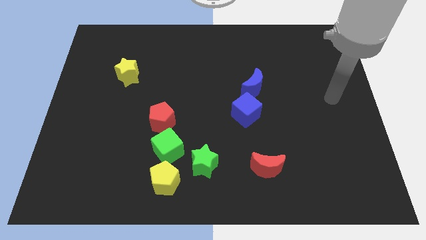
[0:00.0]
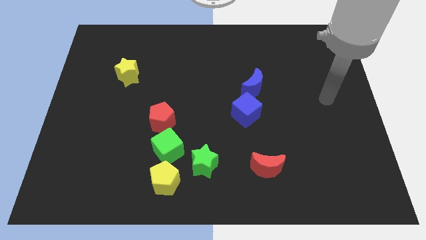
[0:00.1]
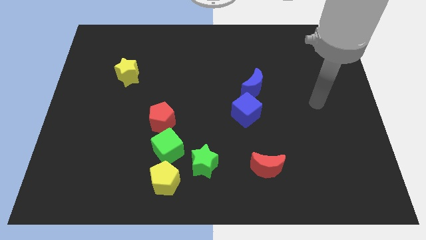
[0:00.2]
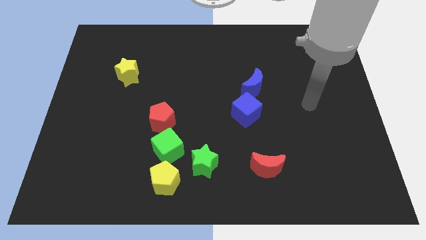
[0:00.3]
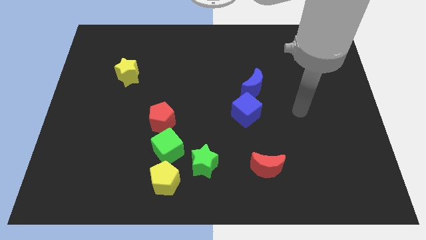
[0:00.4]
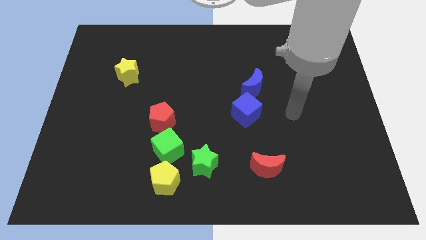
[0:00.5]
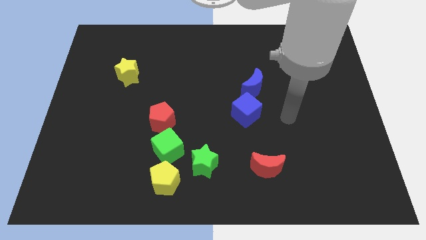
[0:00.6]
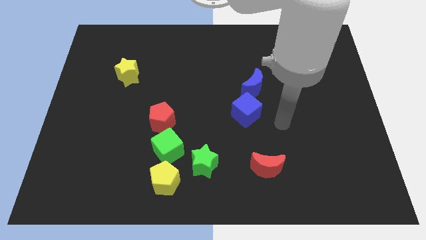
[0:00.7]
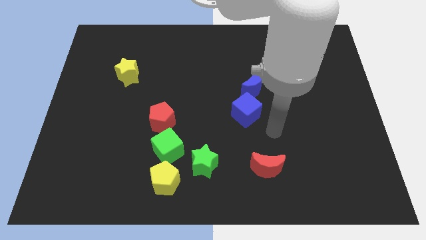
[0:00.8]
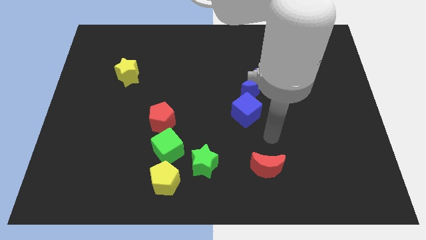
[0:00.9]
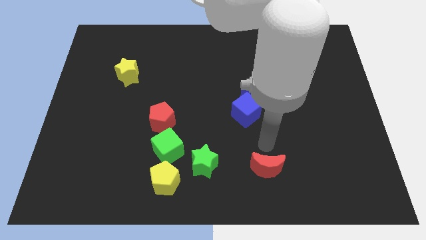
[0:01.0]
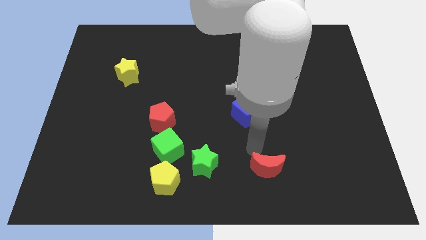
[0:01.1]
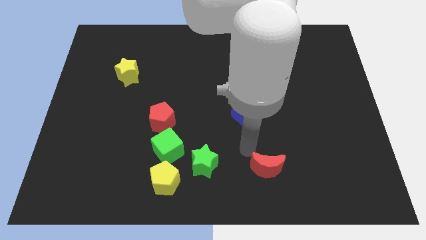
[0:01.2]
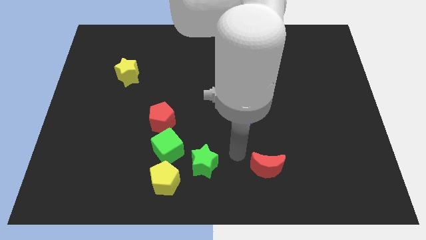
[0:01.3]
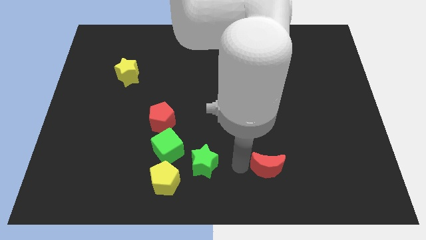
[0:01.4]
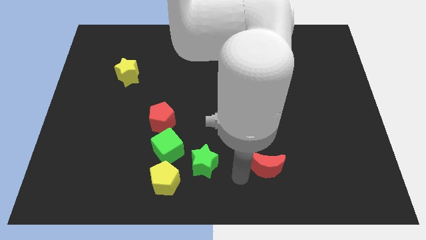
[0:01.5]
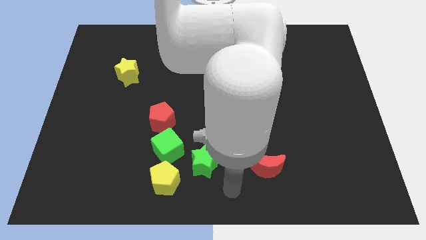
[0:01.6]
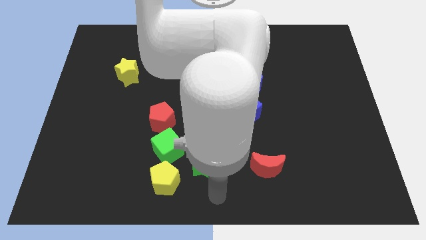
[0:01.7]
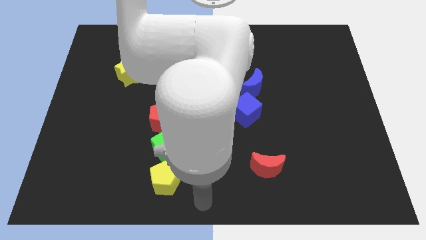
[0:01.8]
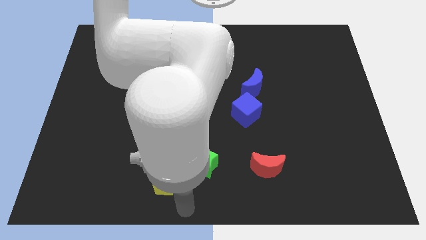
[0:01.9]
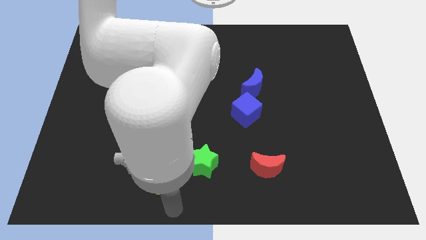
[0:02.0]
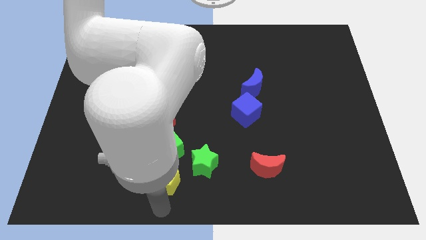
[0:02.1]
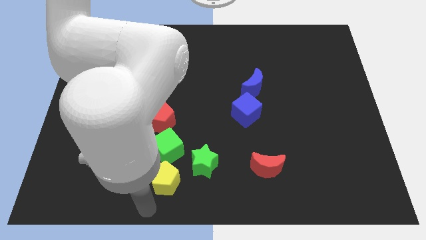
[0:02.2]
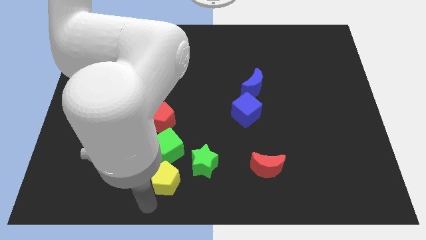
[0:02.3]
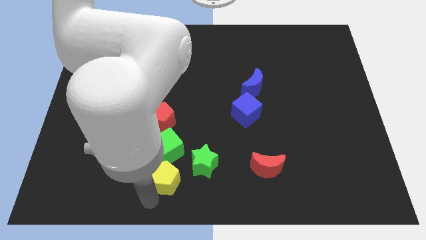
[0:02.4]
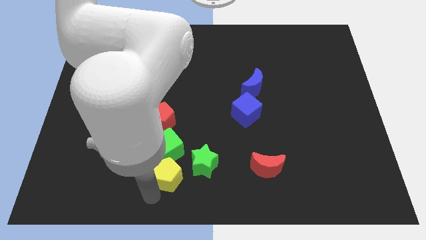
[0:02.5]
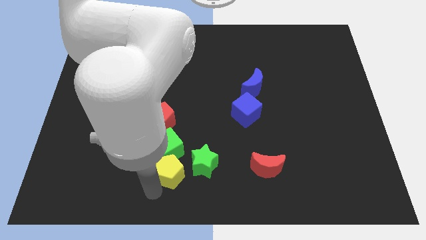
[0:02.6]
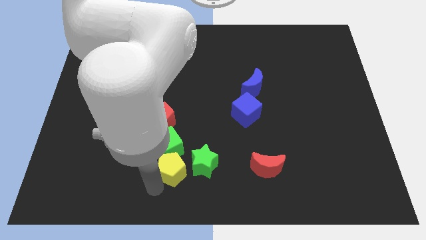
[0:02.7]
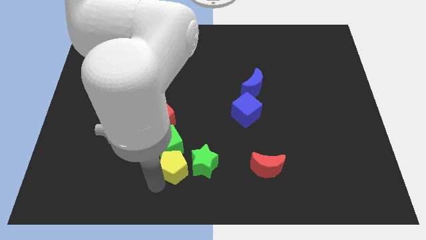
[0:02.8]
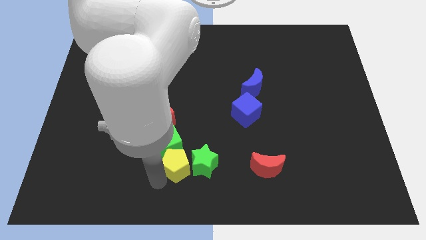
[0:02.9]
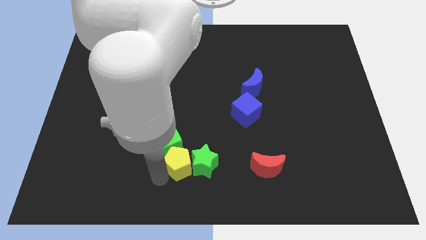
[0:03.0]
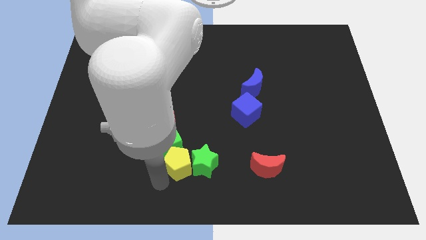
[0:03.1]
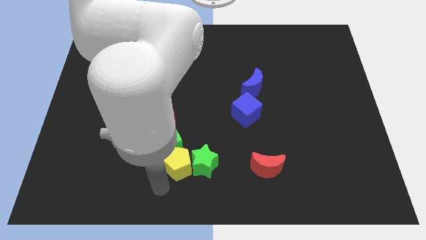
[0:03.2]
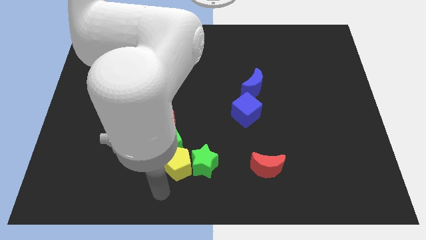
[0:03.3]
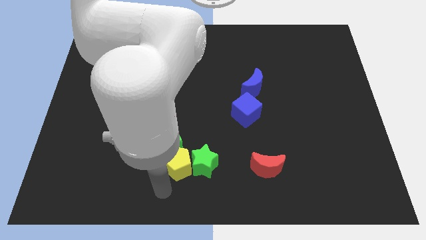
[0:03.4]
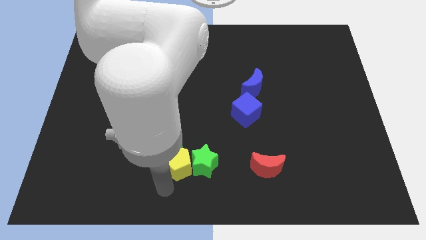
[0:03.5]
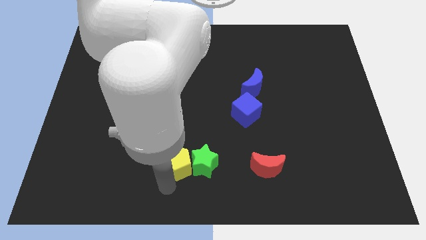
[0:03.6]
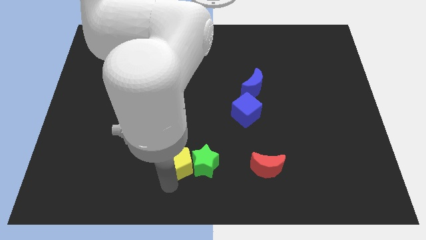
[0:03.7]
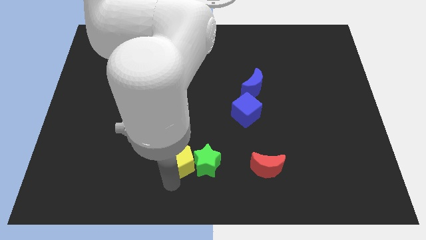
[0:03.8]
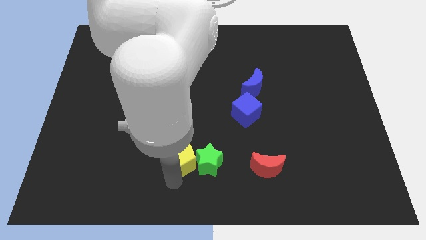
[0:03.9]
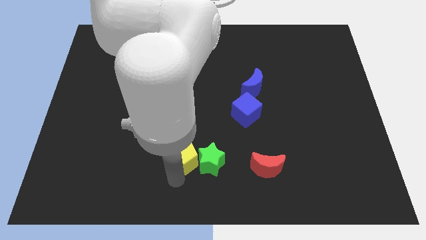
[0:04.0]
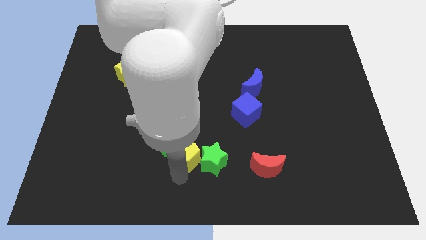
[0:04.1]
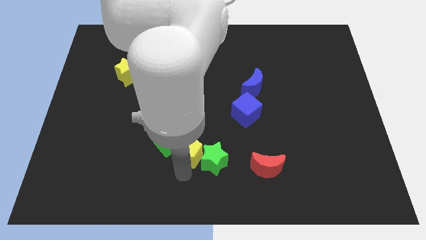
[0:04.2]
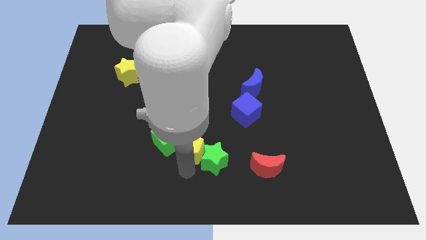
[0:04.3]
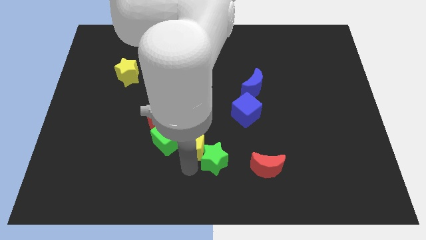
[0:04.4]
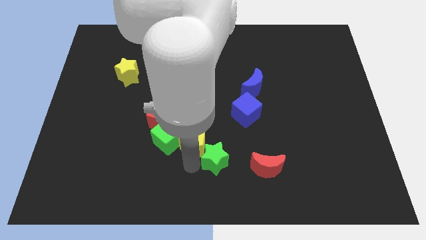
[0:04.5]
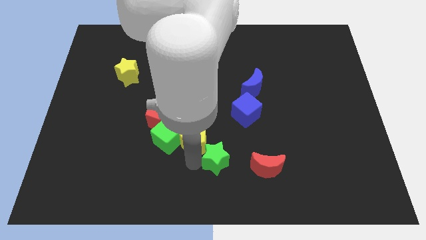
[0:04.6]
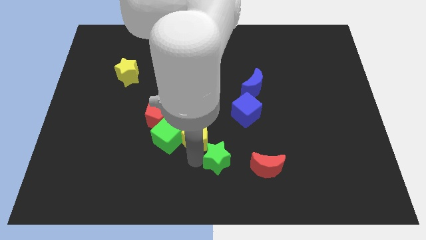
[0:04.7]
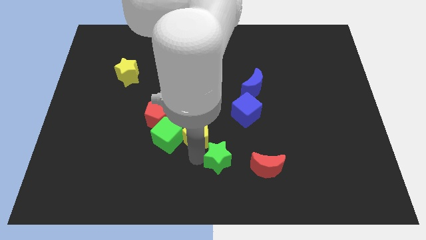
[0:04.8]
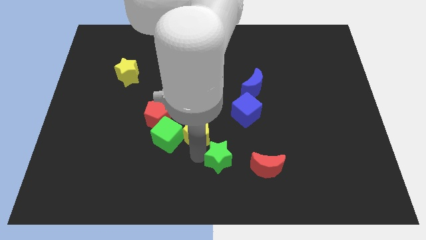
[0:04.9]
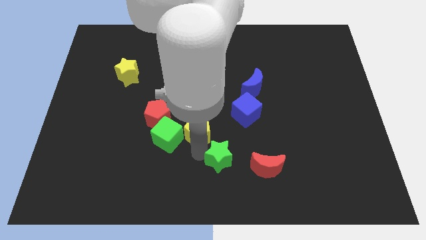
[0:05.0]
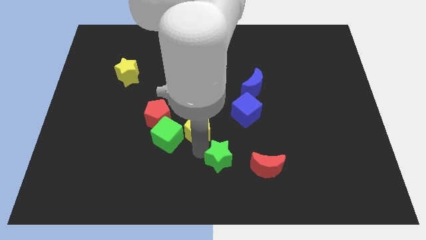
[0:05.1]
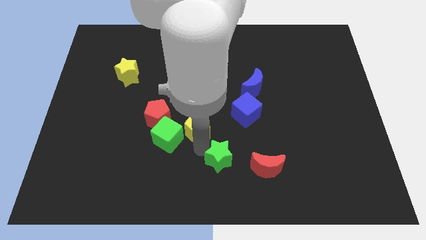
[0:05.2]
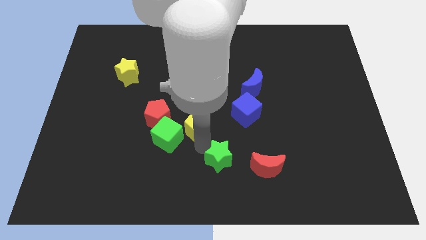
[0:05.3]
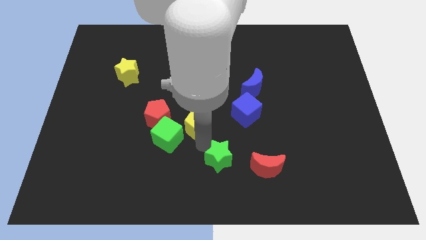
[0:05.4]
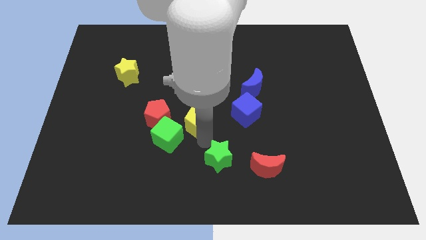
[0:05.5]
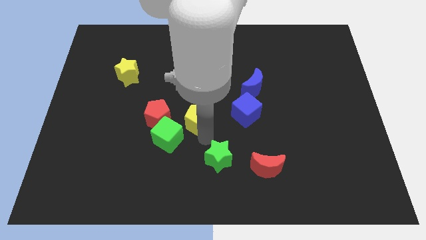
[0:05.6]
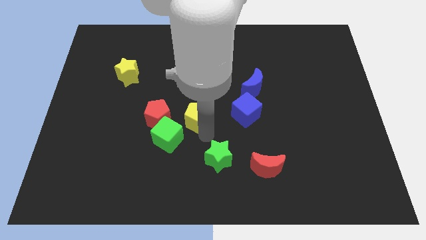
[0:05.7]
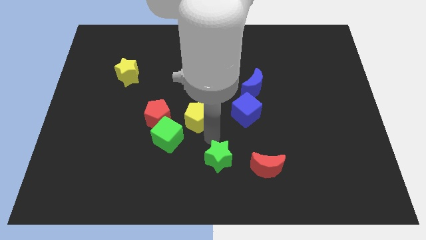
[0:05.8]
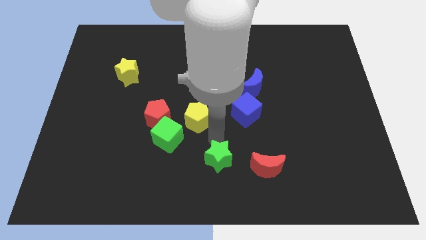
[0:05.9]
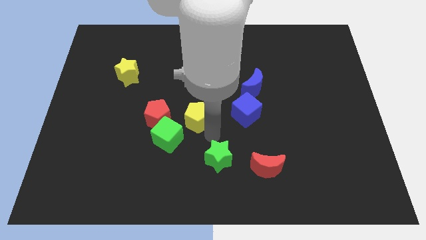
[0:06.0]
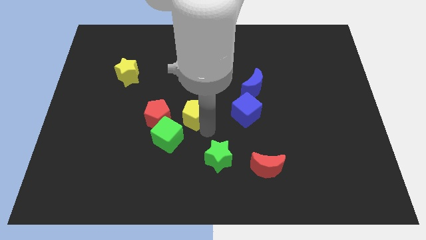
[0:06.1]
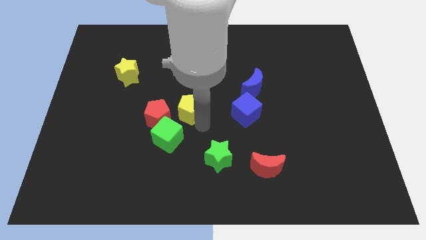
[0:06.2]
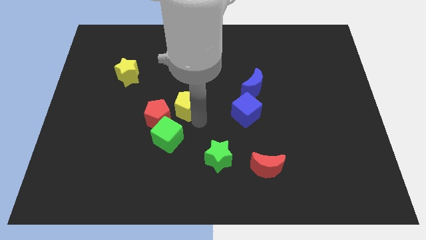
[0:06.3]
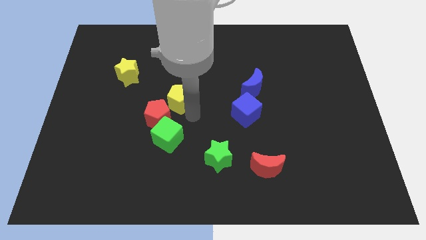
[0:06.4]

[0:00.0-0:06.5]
slide the yellow pentagon upwards

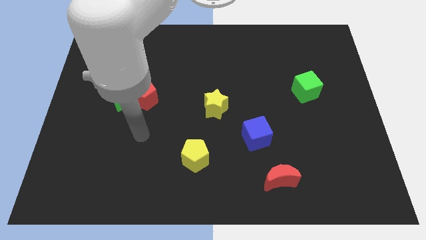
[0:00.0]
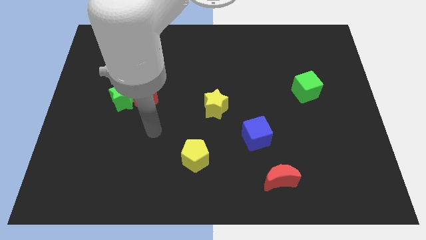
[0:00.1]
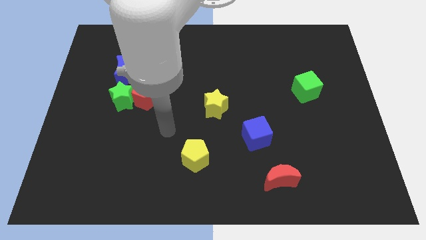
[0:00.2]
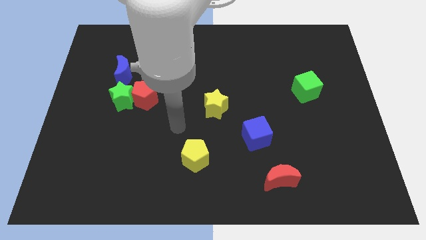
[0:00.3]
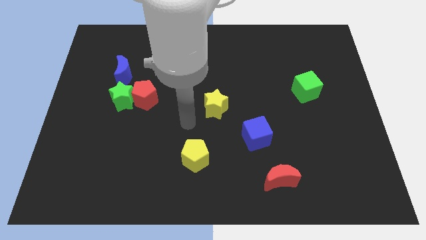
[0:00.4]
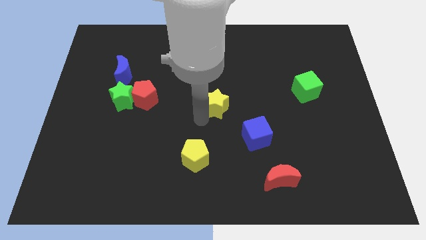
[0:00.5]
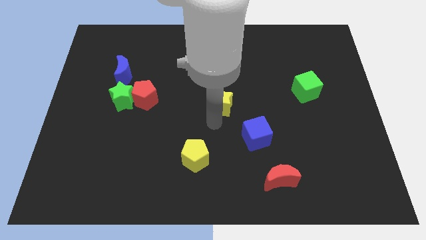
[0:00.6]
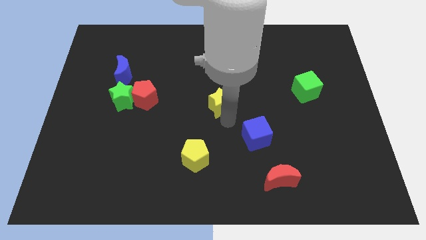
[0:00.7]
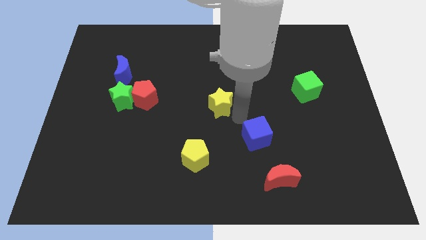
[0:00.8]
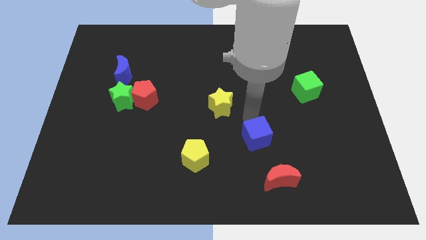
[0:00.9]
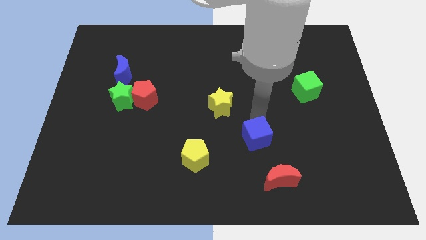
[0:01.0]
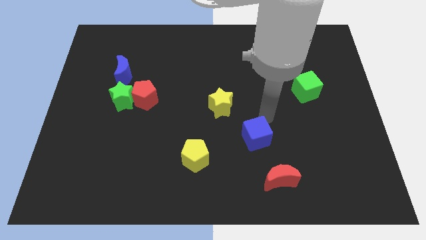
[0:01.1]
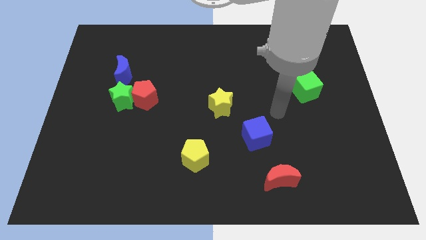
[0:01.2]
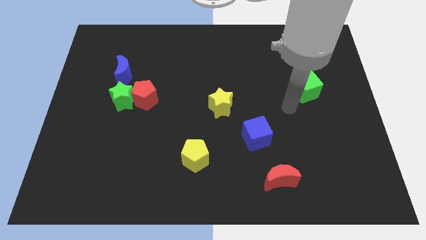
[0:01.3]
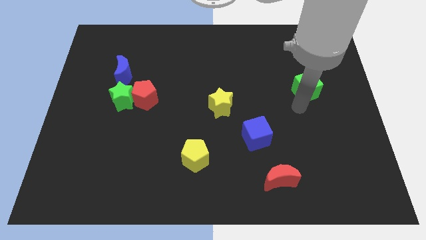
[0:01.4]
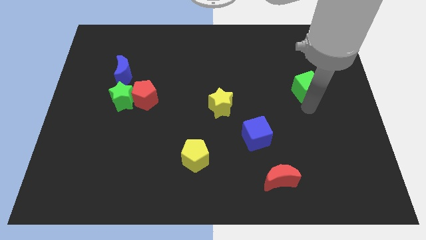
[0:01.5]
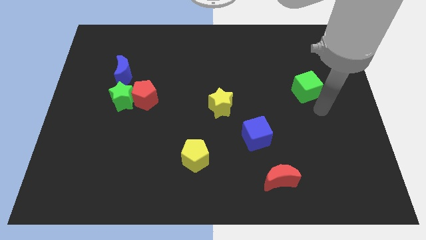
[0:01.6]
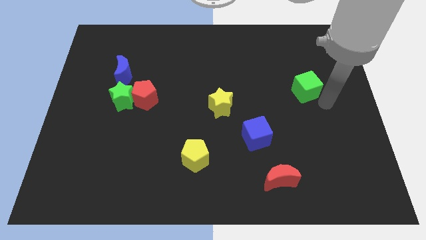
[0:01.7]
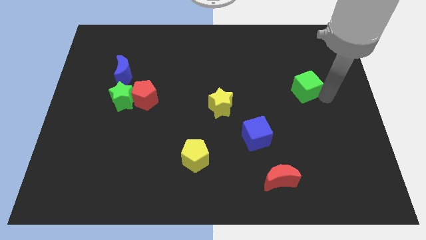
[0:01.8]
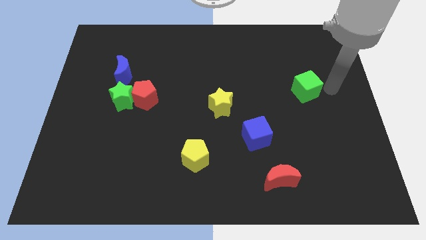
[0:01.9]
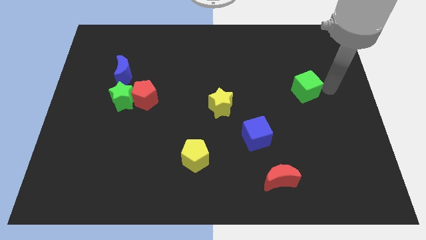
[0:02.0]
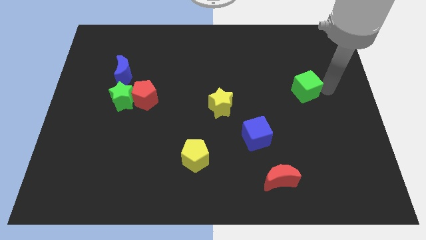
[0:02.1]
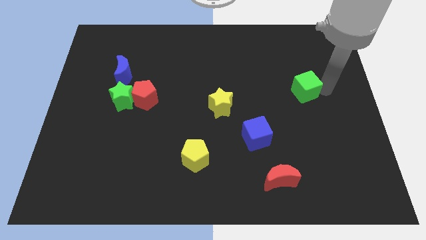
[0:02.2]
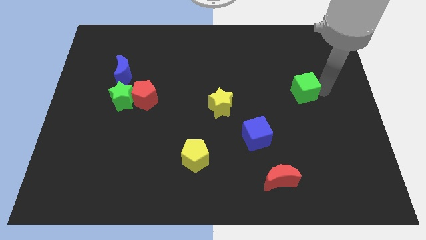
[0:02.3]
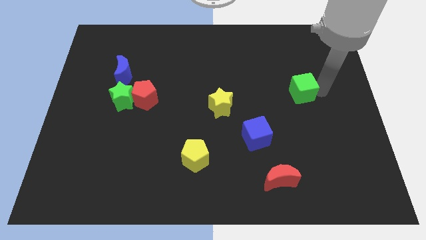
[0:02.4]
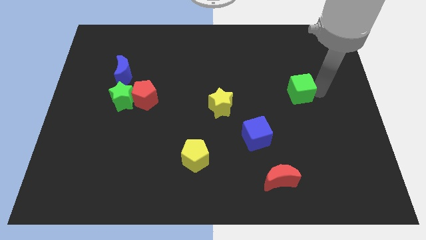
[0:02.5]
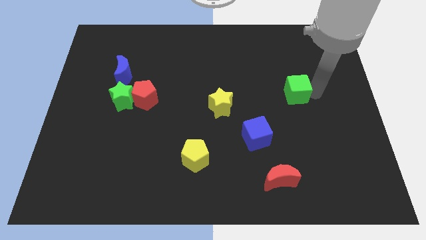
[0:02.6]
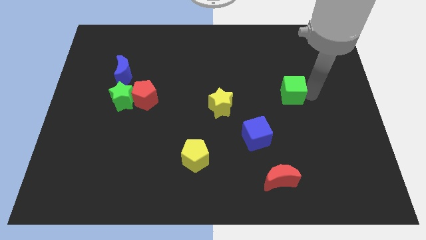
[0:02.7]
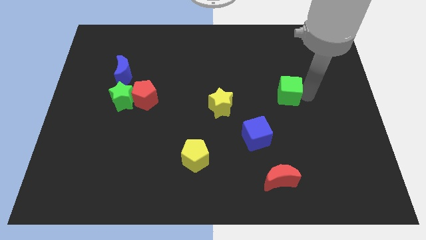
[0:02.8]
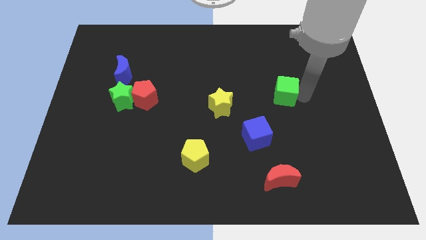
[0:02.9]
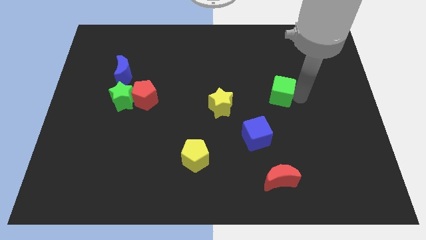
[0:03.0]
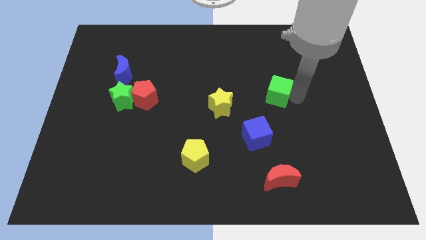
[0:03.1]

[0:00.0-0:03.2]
move the green cube somewhat to the left
